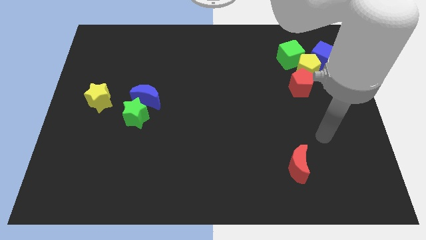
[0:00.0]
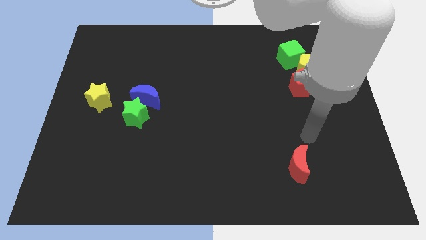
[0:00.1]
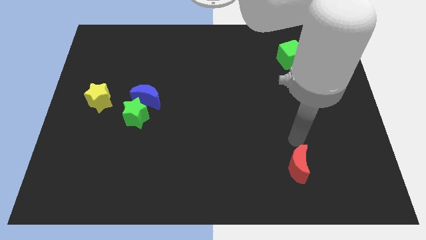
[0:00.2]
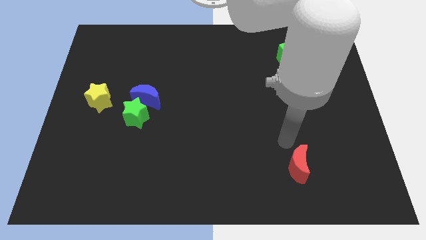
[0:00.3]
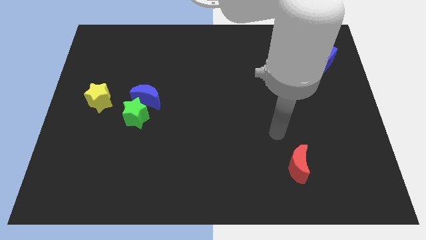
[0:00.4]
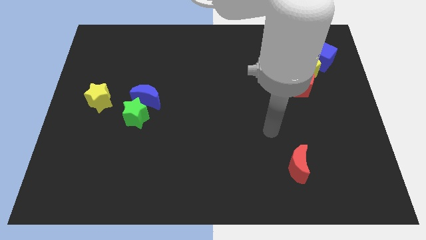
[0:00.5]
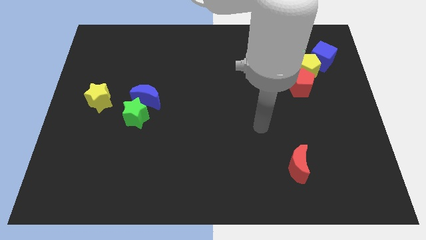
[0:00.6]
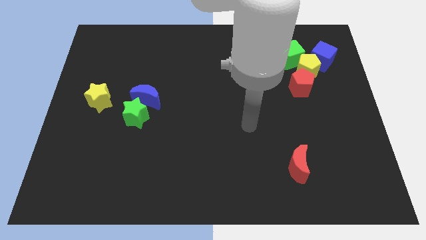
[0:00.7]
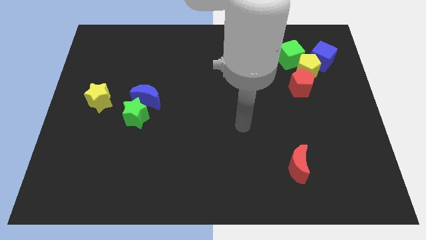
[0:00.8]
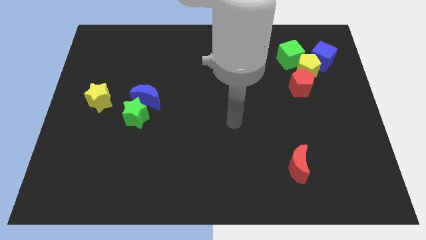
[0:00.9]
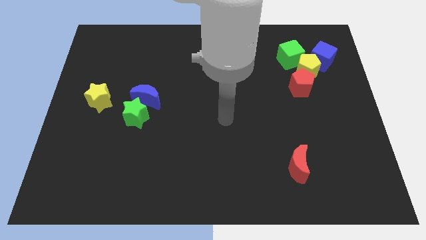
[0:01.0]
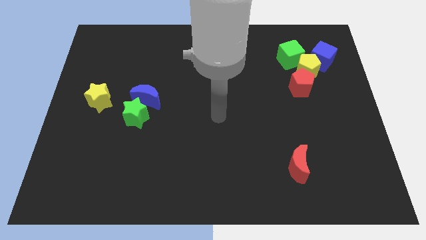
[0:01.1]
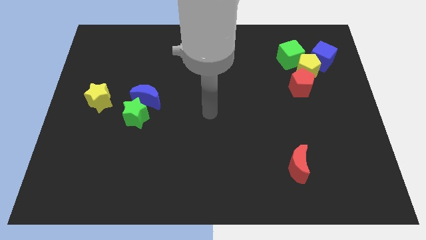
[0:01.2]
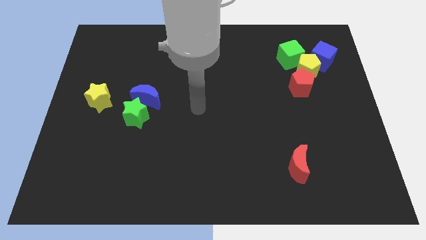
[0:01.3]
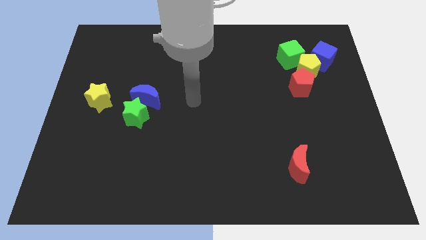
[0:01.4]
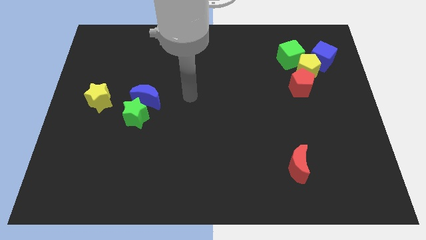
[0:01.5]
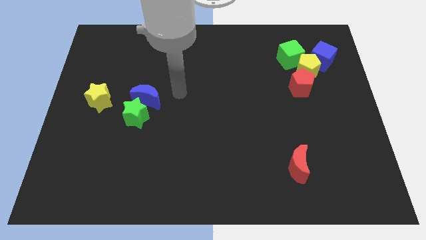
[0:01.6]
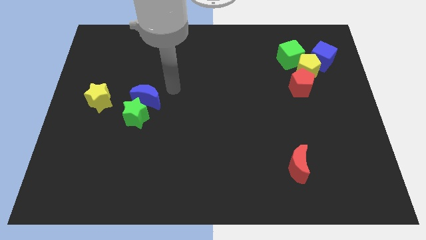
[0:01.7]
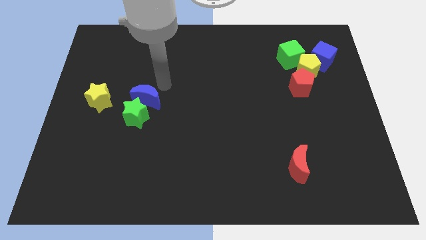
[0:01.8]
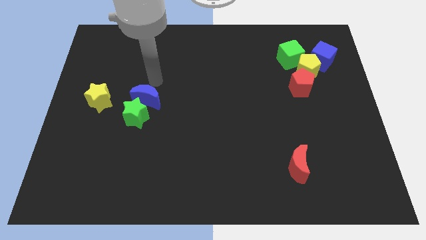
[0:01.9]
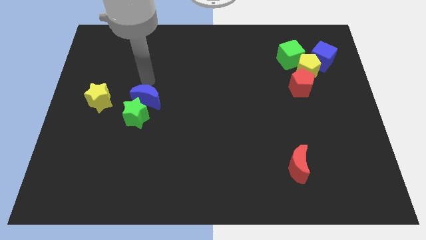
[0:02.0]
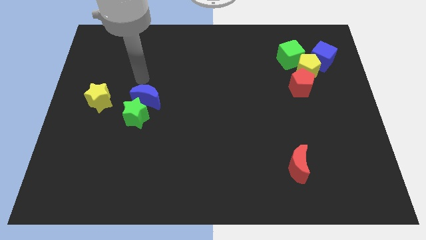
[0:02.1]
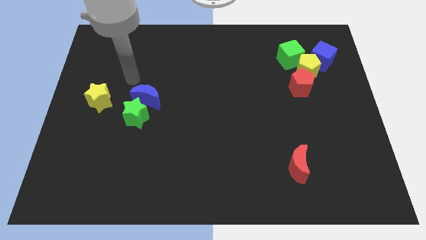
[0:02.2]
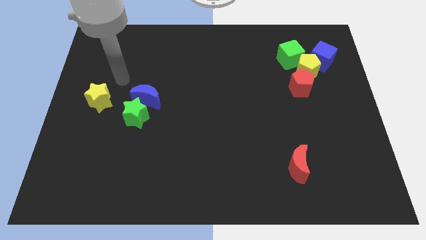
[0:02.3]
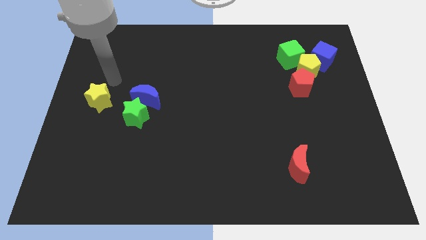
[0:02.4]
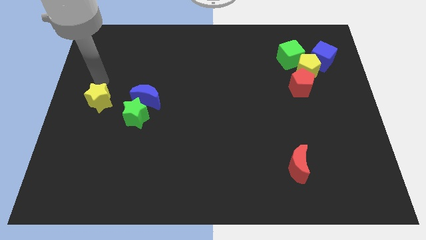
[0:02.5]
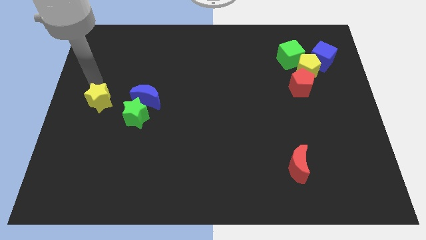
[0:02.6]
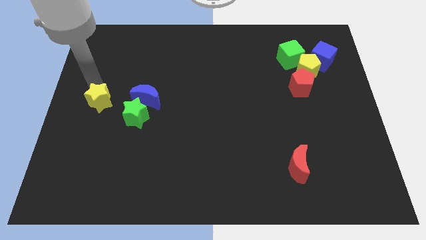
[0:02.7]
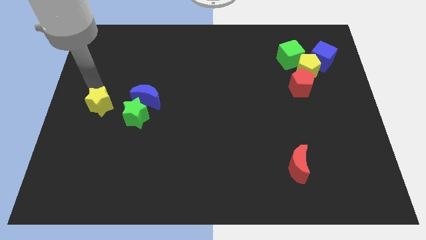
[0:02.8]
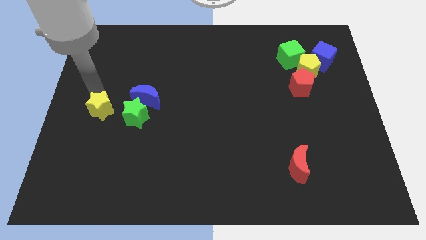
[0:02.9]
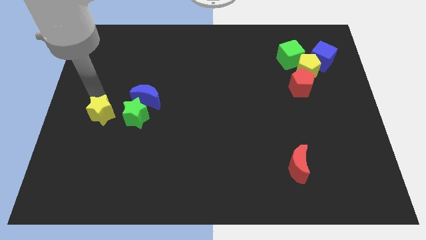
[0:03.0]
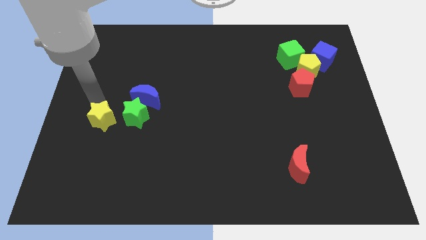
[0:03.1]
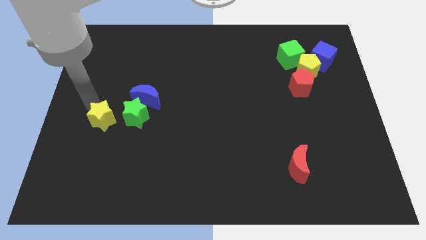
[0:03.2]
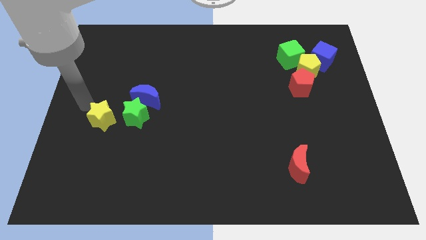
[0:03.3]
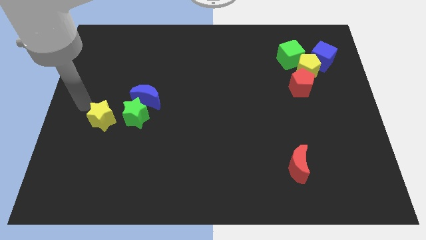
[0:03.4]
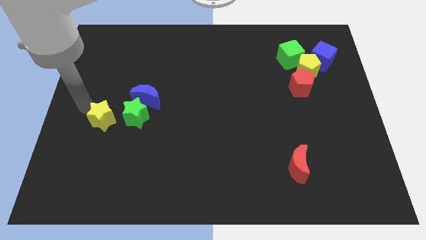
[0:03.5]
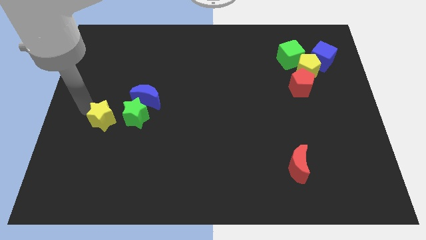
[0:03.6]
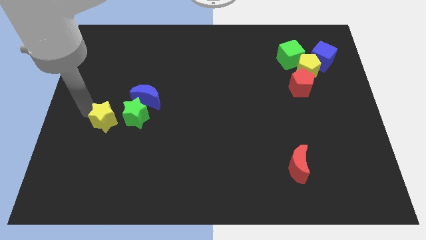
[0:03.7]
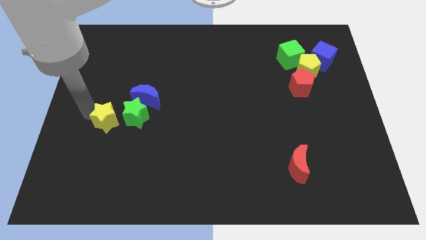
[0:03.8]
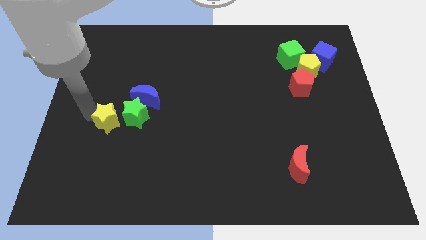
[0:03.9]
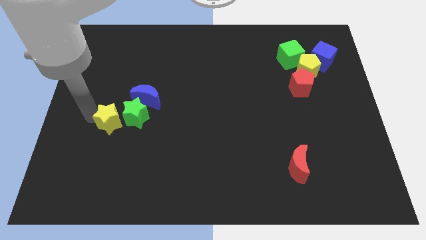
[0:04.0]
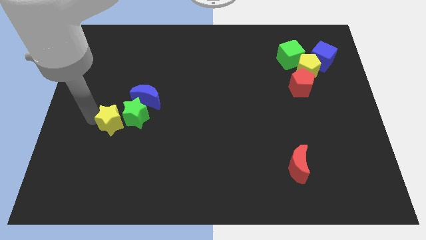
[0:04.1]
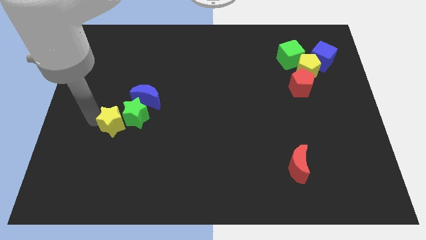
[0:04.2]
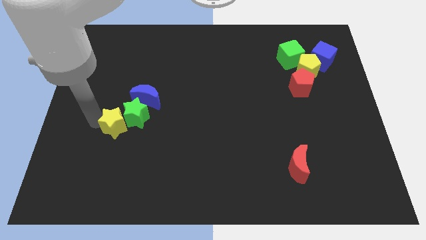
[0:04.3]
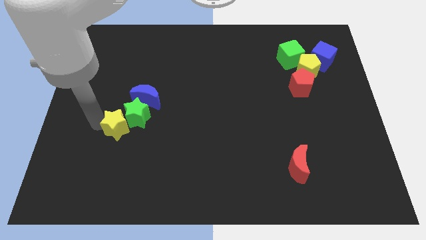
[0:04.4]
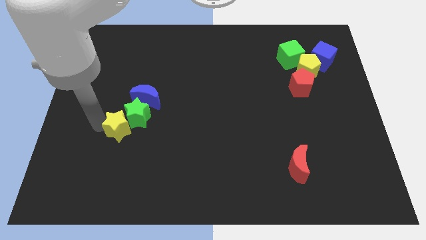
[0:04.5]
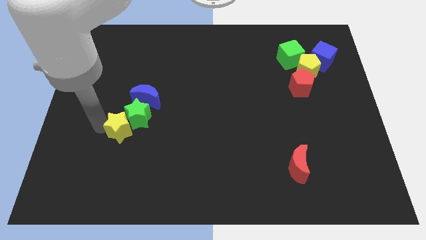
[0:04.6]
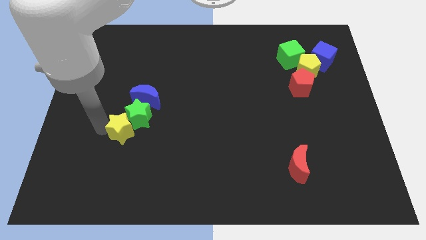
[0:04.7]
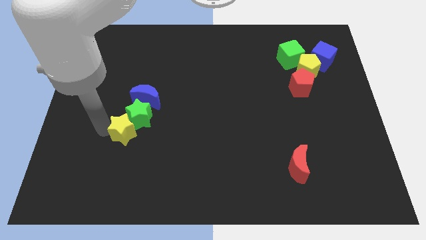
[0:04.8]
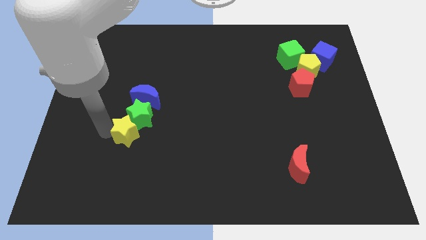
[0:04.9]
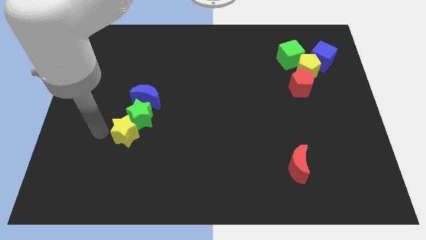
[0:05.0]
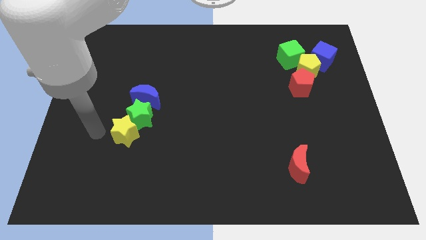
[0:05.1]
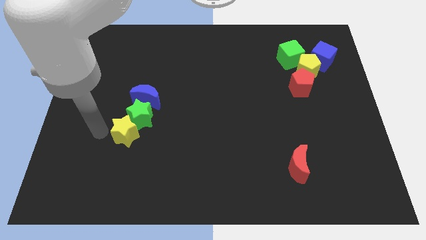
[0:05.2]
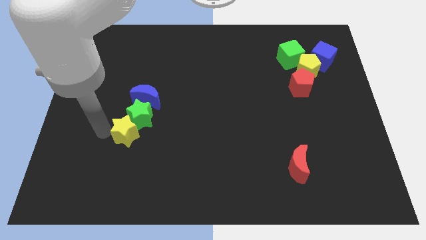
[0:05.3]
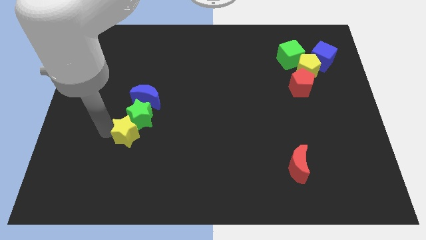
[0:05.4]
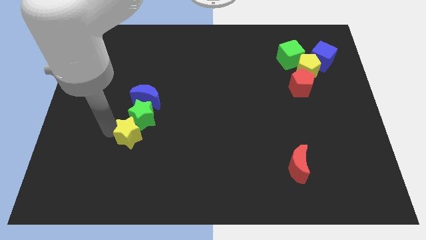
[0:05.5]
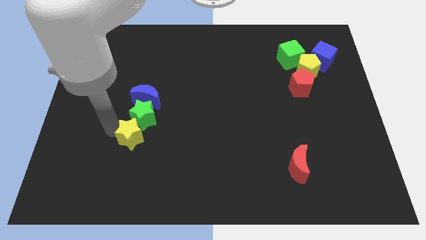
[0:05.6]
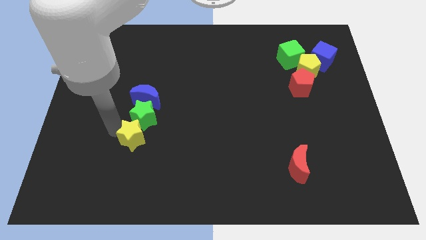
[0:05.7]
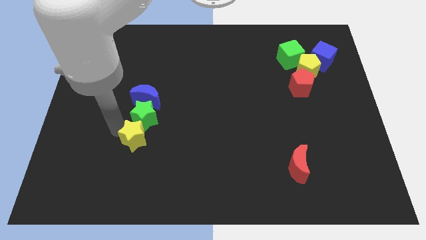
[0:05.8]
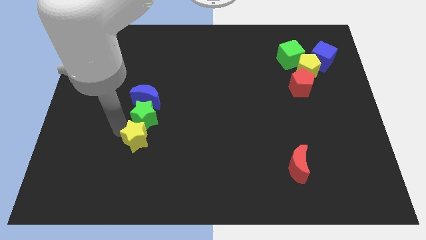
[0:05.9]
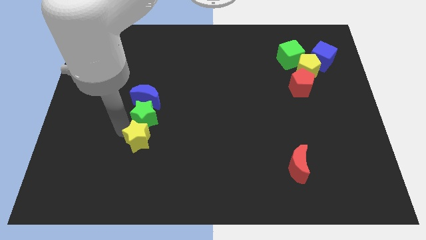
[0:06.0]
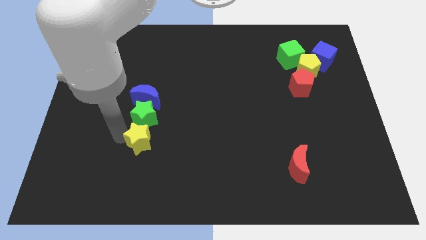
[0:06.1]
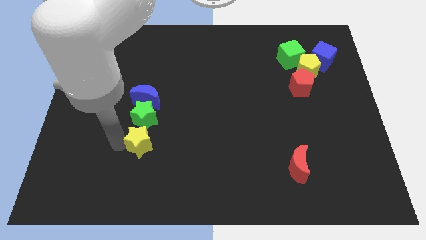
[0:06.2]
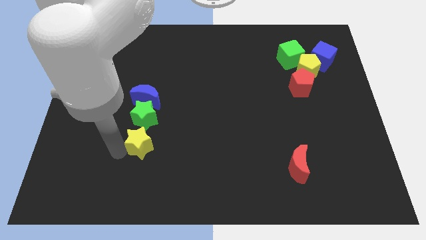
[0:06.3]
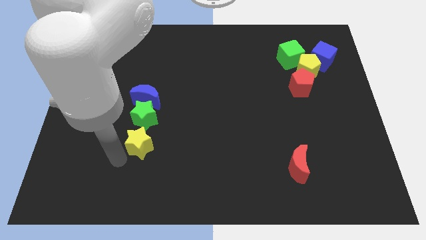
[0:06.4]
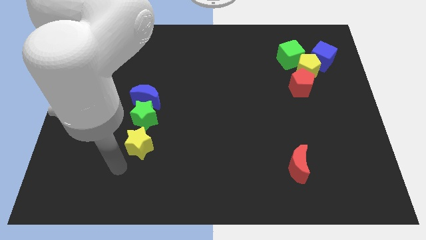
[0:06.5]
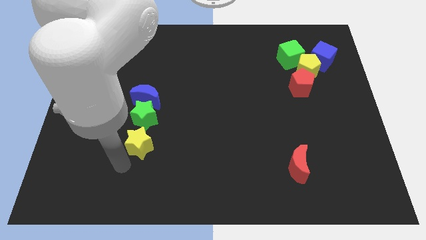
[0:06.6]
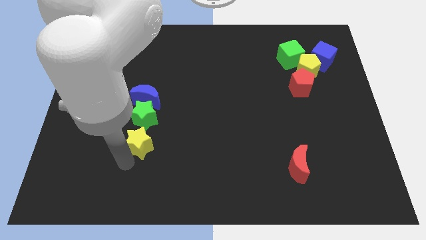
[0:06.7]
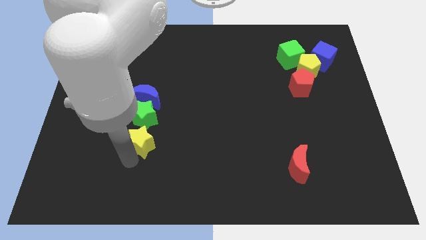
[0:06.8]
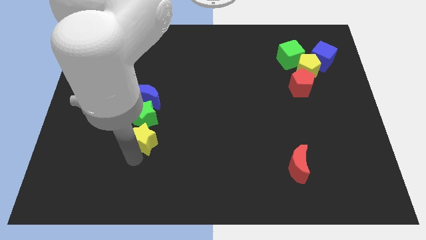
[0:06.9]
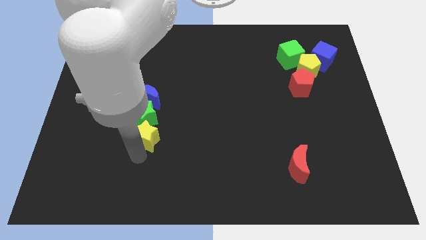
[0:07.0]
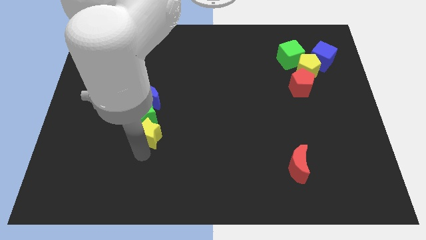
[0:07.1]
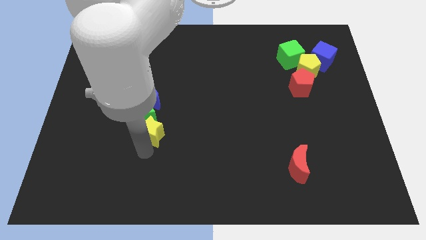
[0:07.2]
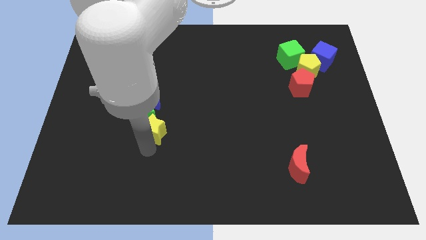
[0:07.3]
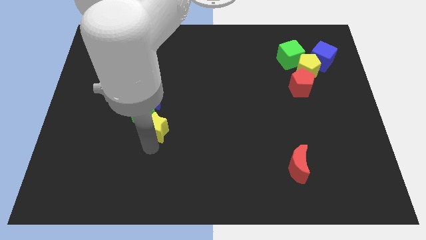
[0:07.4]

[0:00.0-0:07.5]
move the yellow star to the bottom right side of the blue moon
